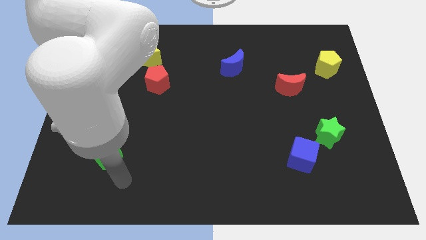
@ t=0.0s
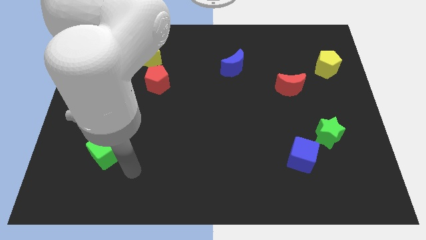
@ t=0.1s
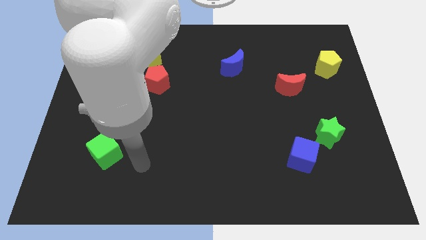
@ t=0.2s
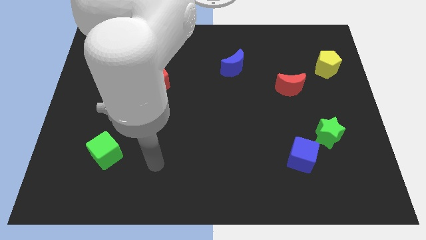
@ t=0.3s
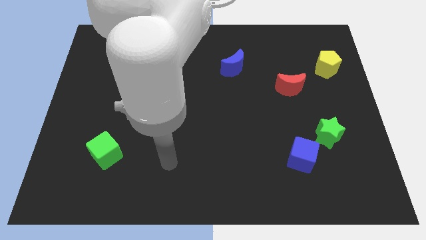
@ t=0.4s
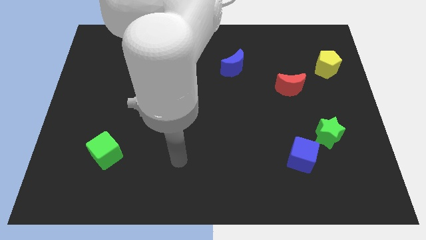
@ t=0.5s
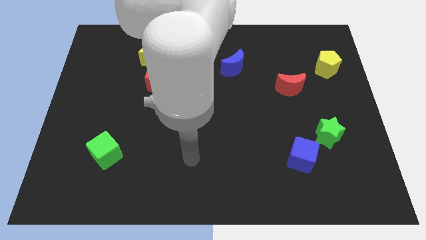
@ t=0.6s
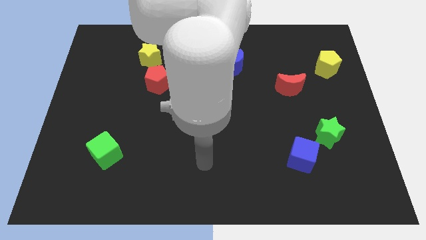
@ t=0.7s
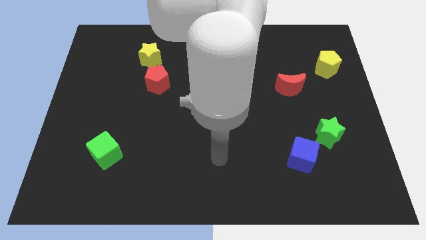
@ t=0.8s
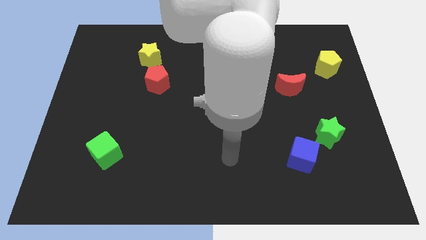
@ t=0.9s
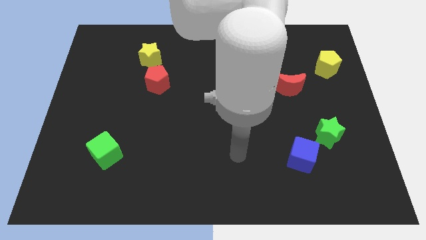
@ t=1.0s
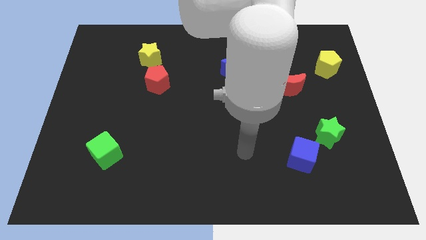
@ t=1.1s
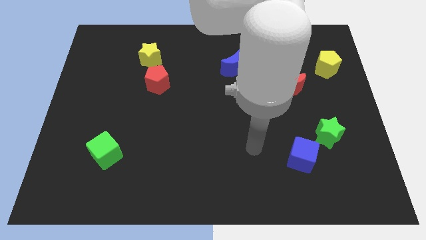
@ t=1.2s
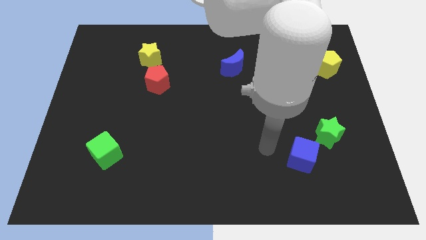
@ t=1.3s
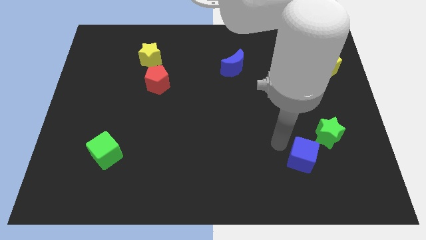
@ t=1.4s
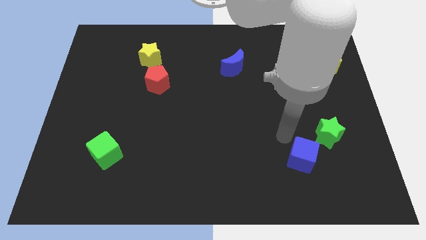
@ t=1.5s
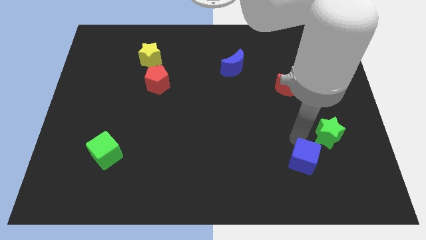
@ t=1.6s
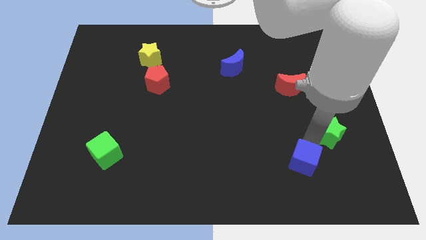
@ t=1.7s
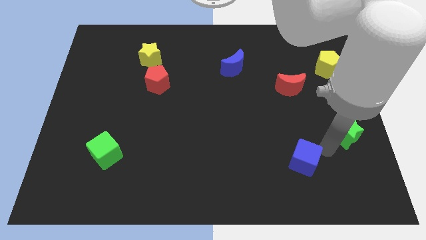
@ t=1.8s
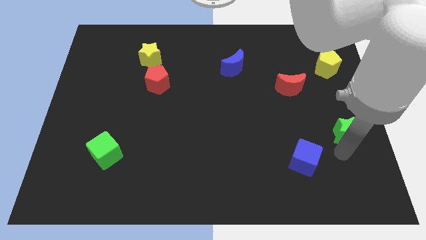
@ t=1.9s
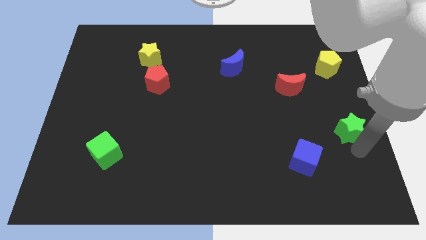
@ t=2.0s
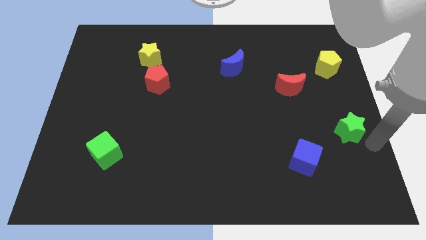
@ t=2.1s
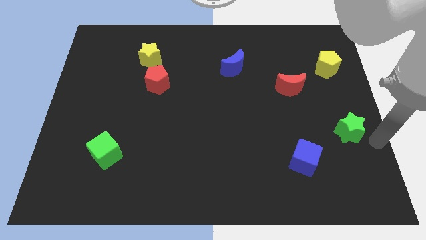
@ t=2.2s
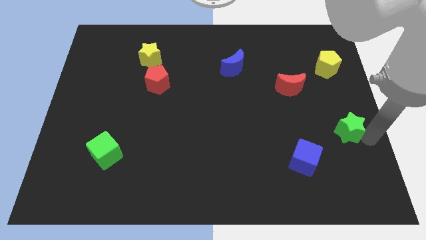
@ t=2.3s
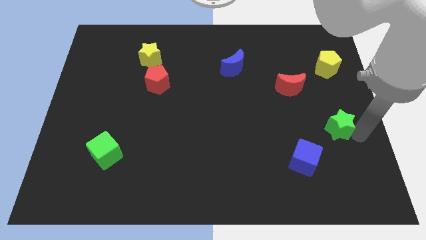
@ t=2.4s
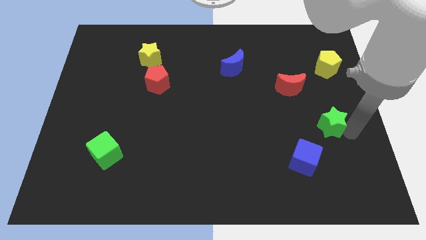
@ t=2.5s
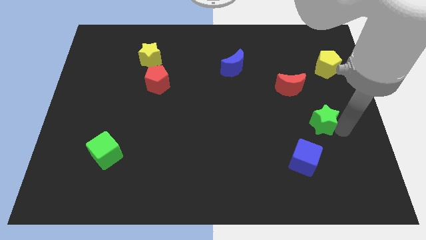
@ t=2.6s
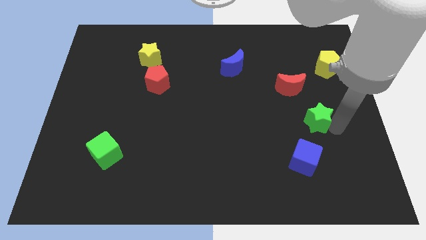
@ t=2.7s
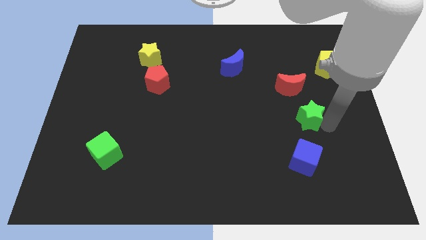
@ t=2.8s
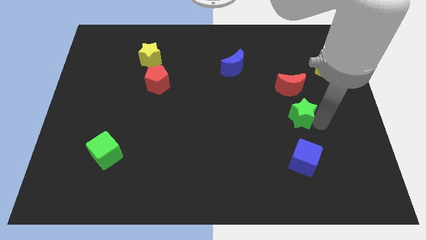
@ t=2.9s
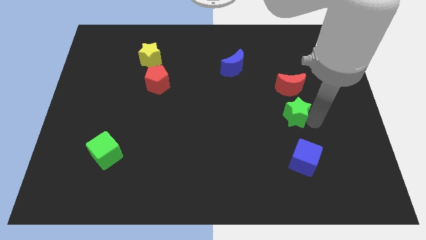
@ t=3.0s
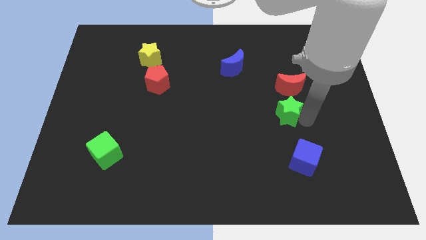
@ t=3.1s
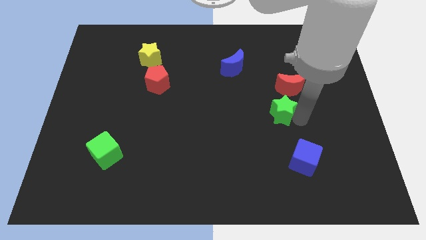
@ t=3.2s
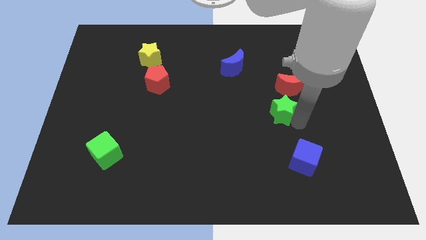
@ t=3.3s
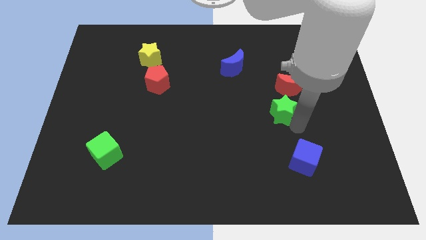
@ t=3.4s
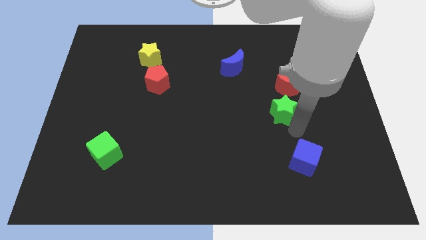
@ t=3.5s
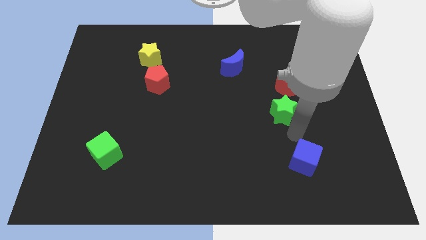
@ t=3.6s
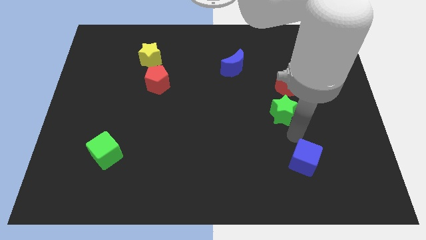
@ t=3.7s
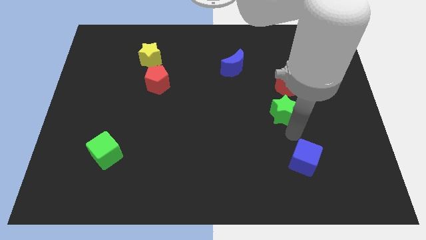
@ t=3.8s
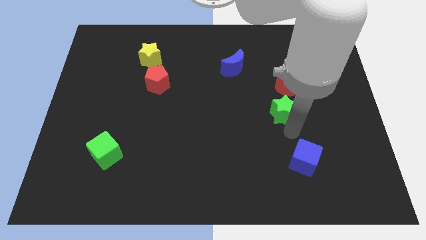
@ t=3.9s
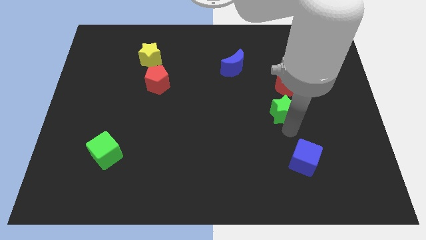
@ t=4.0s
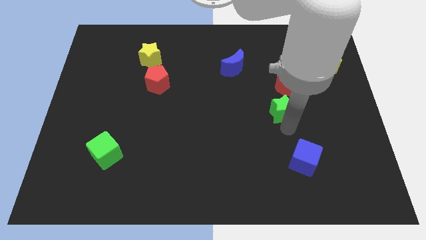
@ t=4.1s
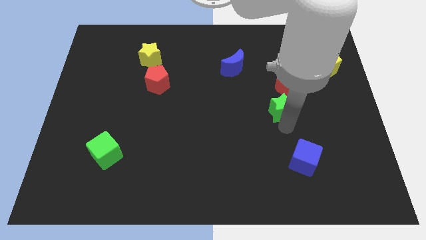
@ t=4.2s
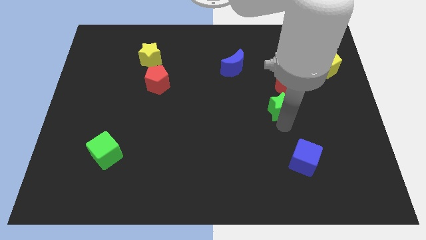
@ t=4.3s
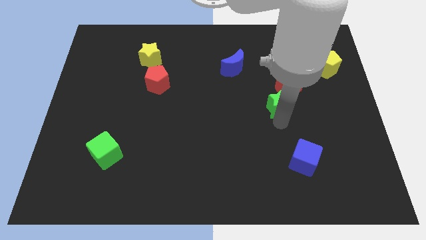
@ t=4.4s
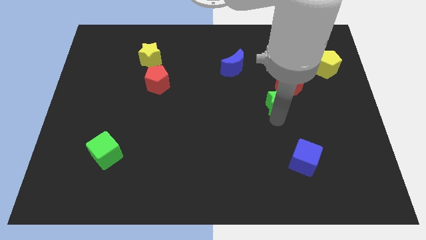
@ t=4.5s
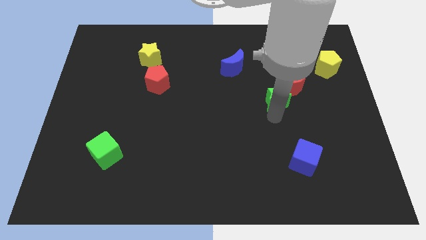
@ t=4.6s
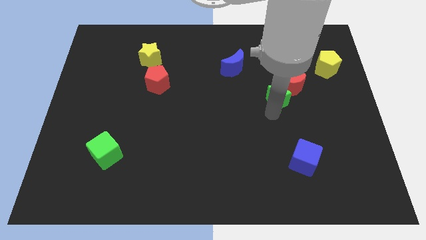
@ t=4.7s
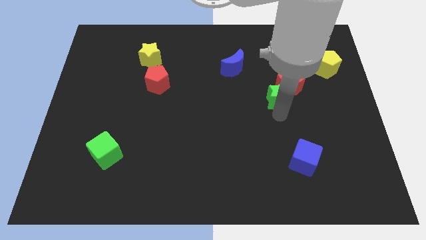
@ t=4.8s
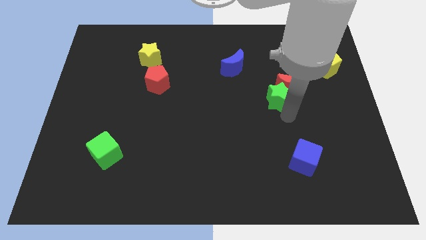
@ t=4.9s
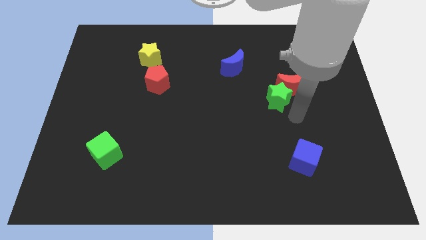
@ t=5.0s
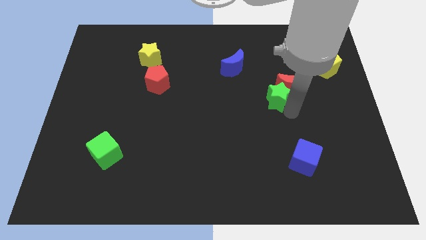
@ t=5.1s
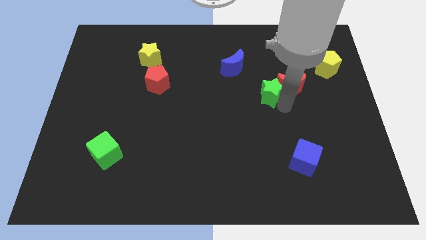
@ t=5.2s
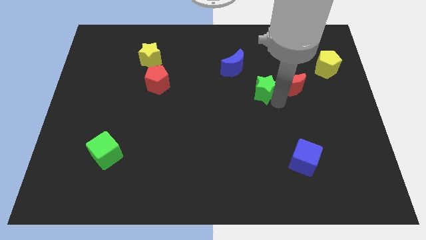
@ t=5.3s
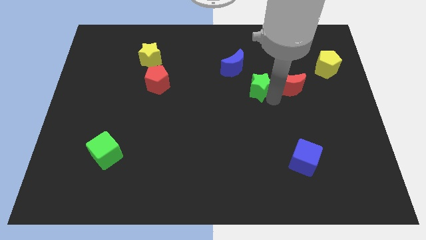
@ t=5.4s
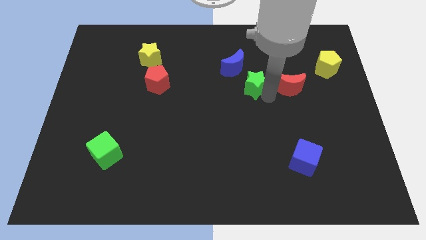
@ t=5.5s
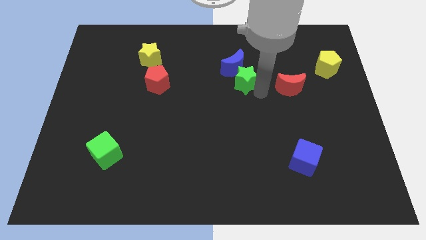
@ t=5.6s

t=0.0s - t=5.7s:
move the green star towards the blue moon
